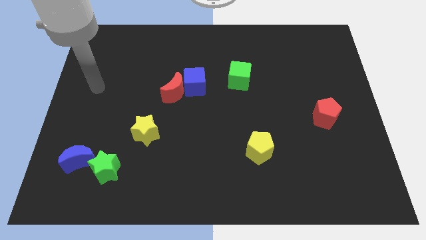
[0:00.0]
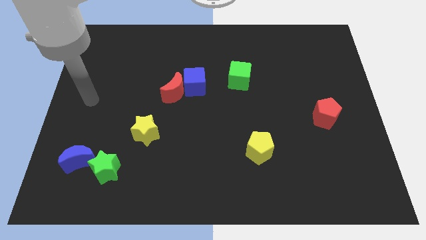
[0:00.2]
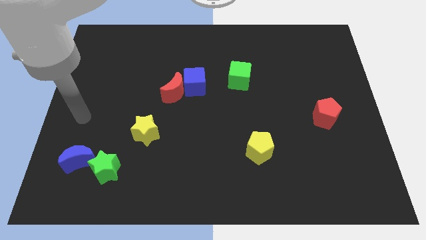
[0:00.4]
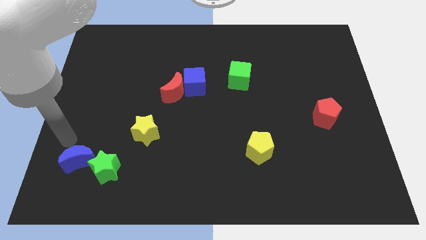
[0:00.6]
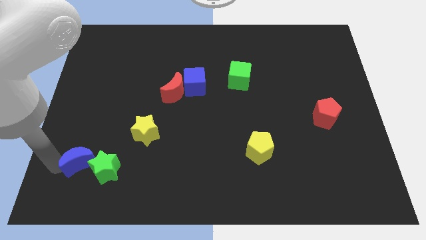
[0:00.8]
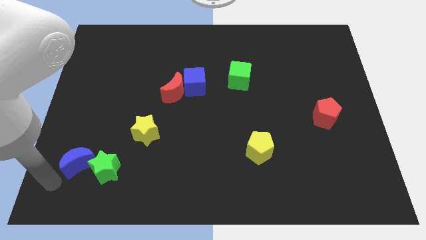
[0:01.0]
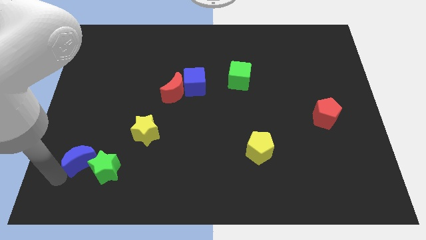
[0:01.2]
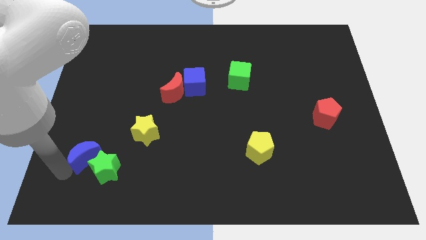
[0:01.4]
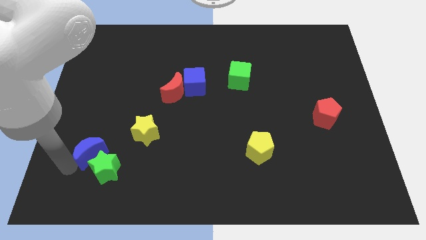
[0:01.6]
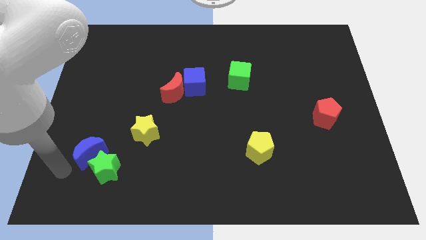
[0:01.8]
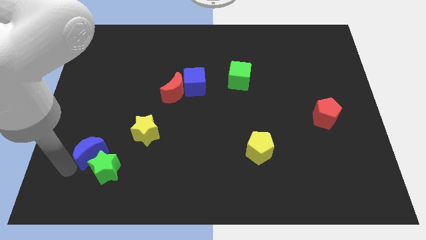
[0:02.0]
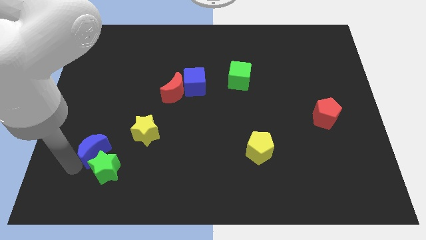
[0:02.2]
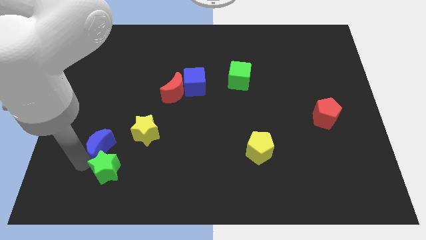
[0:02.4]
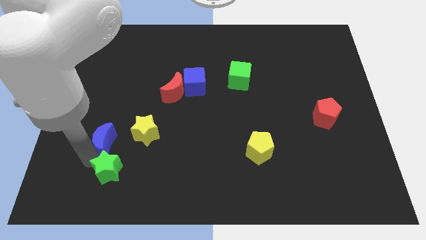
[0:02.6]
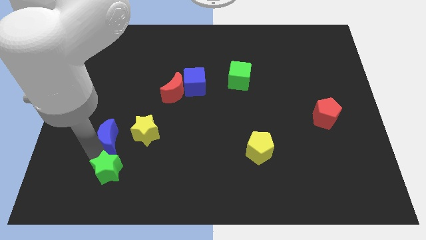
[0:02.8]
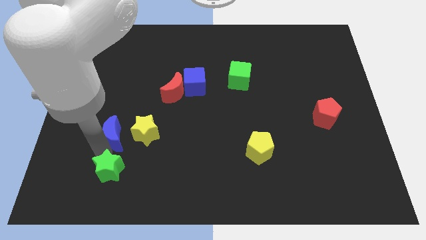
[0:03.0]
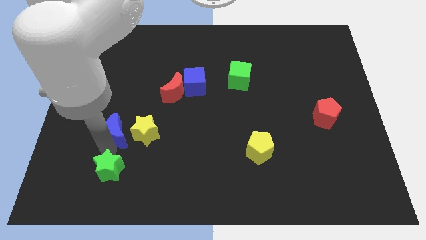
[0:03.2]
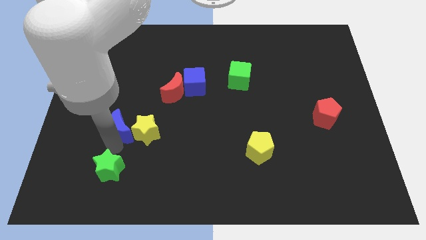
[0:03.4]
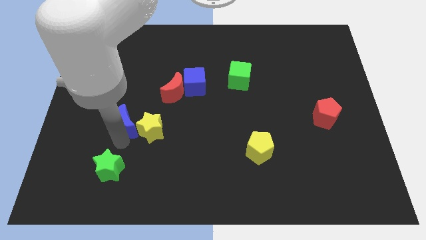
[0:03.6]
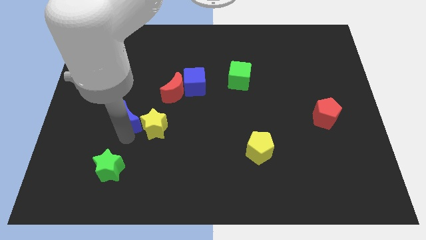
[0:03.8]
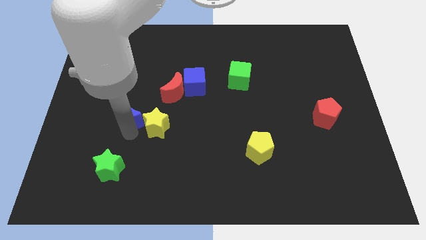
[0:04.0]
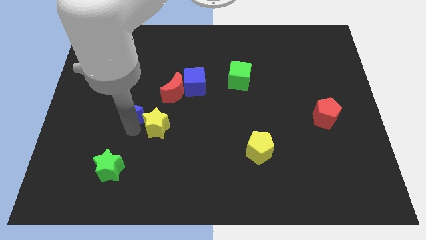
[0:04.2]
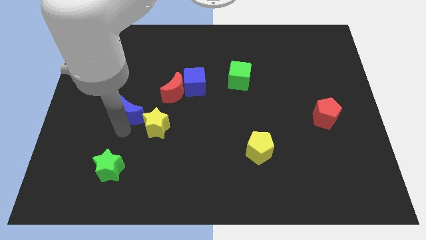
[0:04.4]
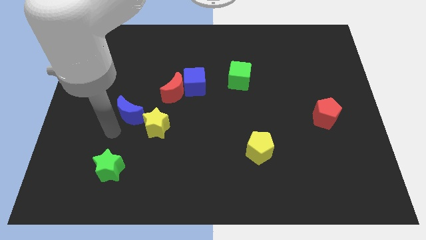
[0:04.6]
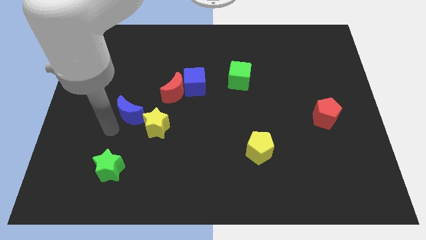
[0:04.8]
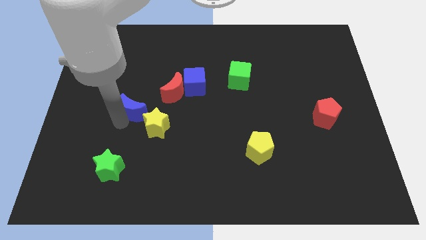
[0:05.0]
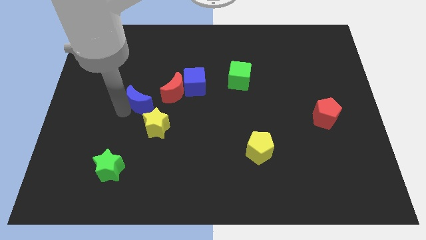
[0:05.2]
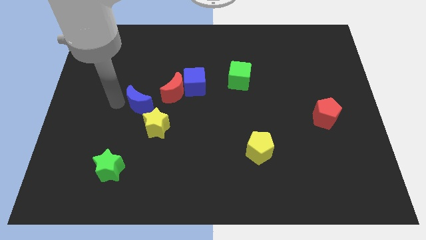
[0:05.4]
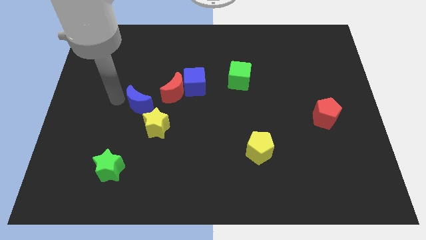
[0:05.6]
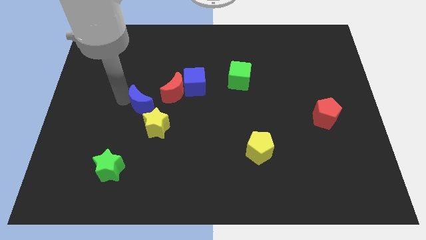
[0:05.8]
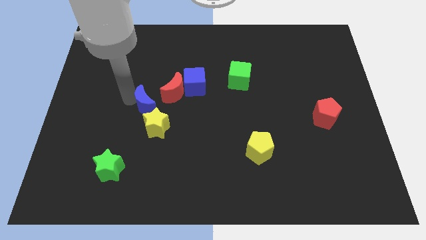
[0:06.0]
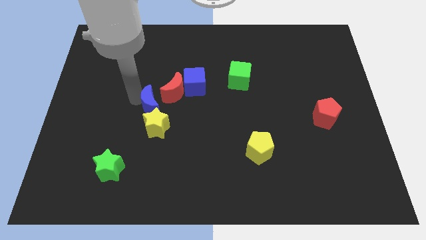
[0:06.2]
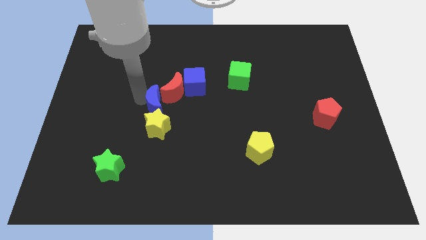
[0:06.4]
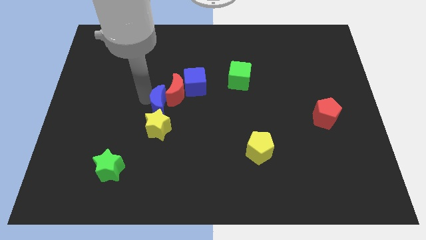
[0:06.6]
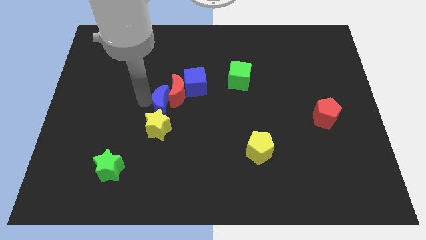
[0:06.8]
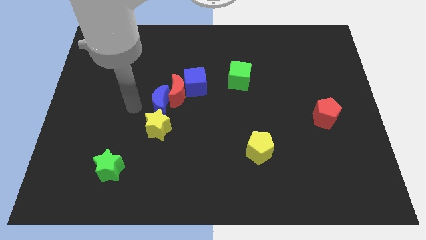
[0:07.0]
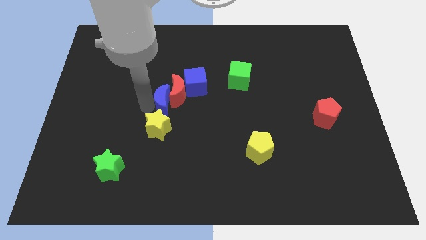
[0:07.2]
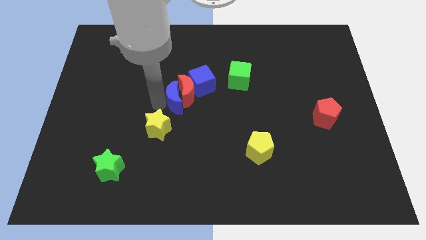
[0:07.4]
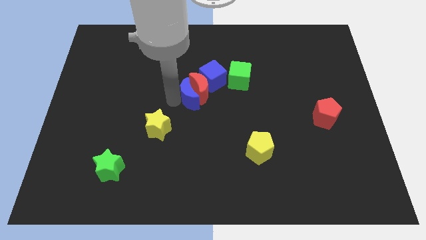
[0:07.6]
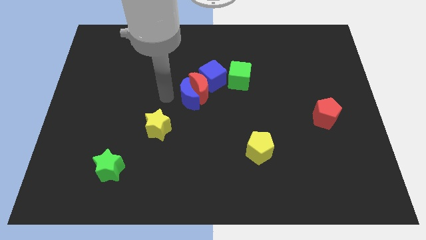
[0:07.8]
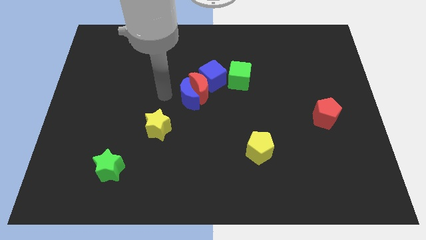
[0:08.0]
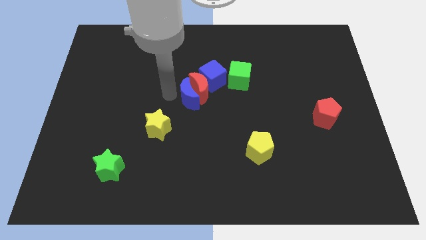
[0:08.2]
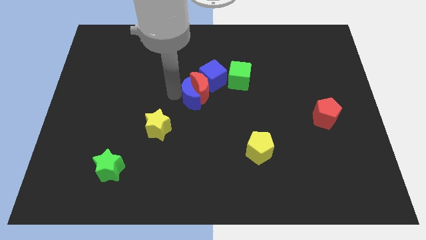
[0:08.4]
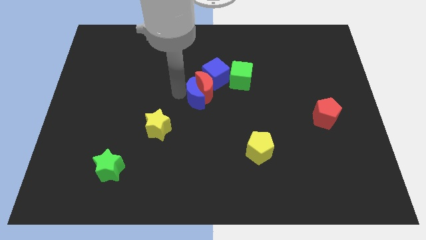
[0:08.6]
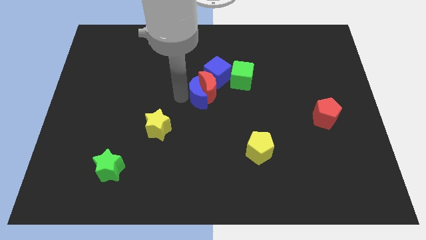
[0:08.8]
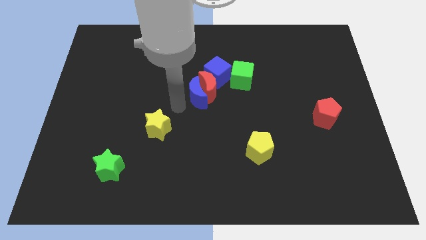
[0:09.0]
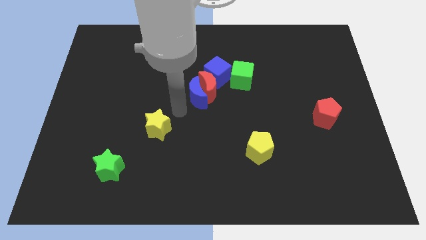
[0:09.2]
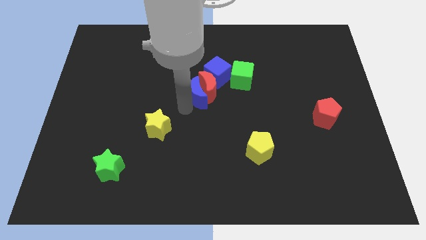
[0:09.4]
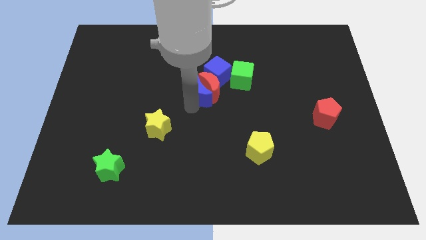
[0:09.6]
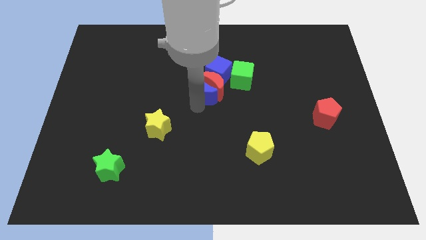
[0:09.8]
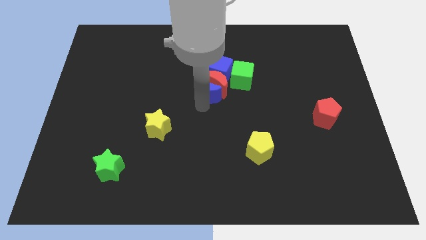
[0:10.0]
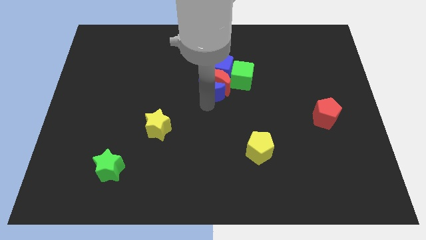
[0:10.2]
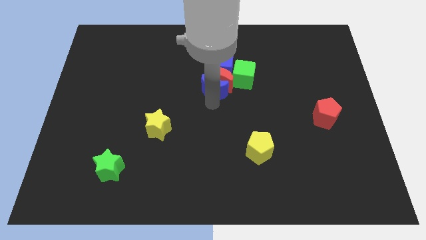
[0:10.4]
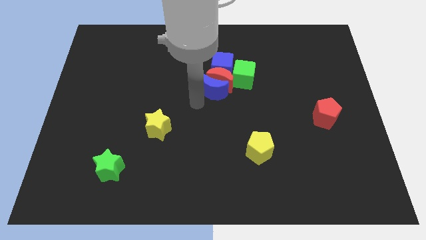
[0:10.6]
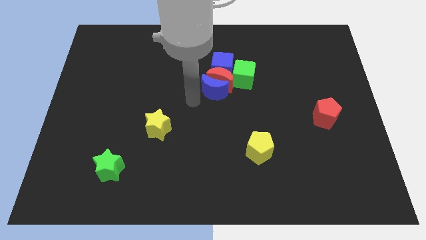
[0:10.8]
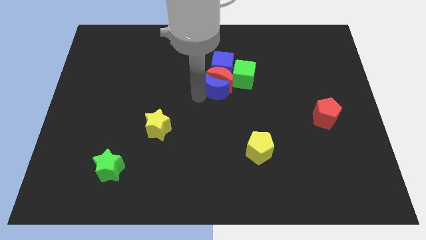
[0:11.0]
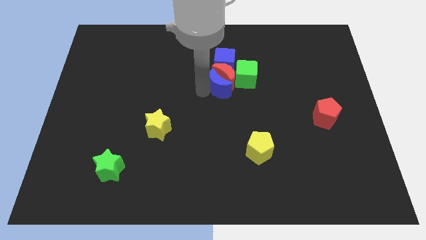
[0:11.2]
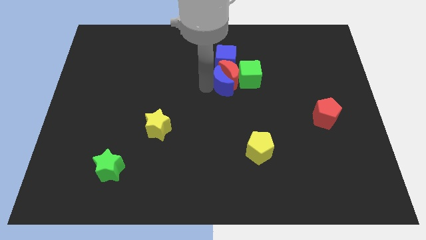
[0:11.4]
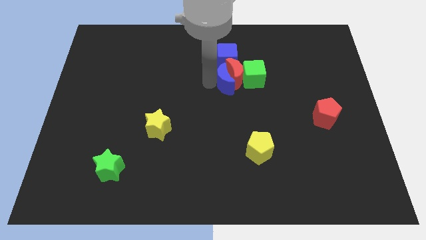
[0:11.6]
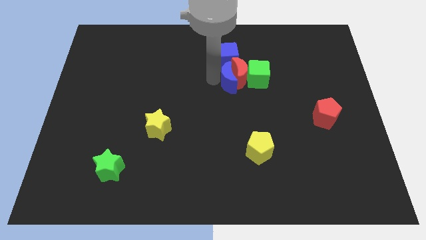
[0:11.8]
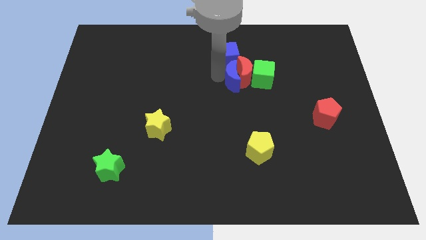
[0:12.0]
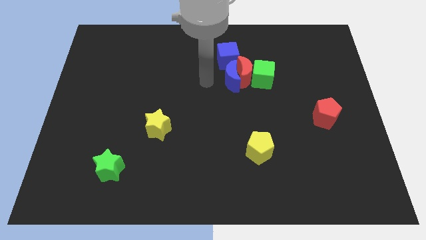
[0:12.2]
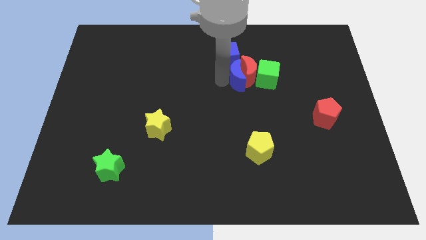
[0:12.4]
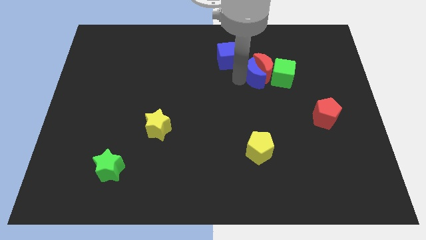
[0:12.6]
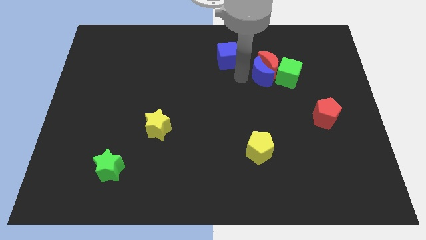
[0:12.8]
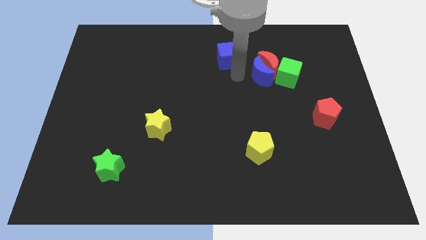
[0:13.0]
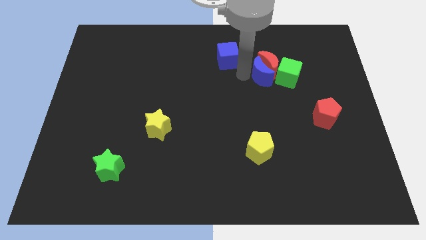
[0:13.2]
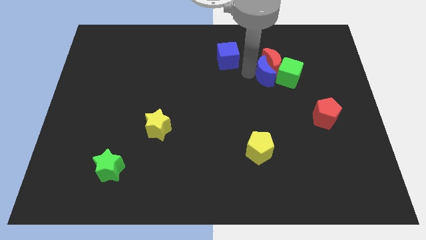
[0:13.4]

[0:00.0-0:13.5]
move the blue moon towards the green cube
